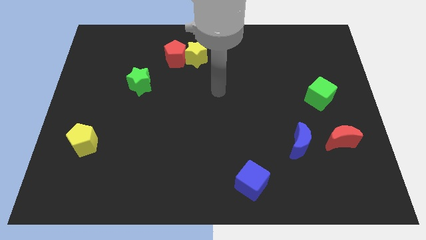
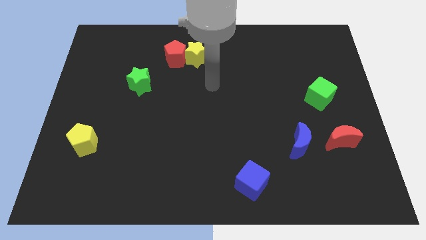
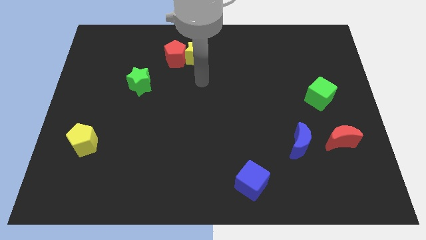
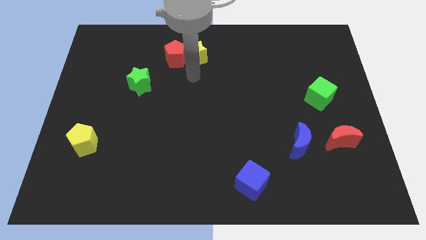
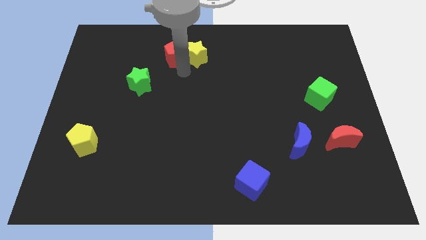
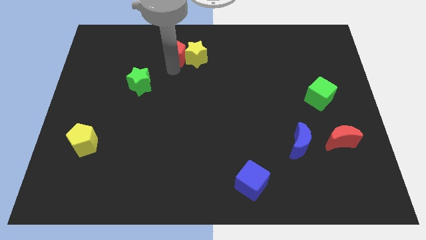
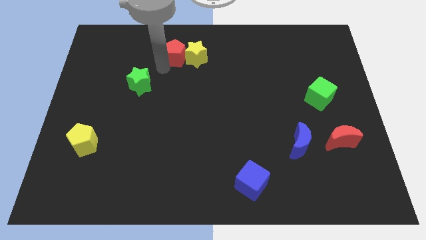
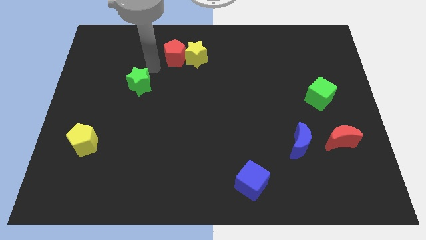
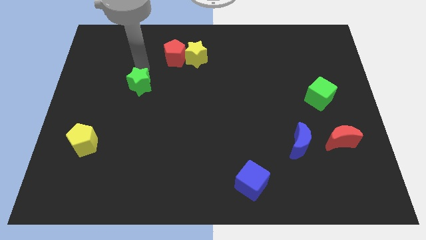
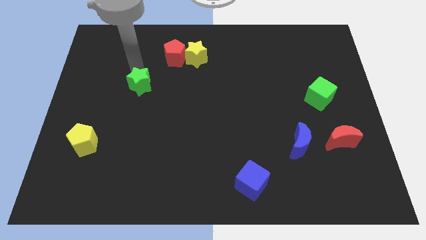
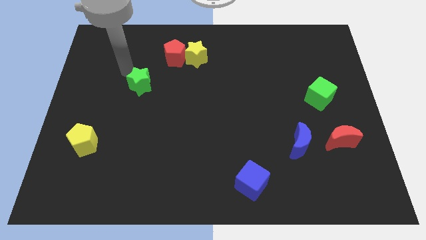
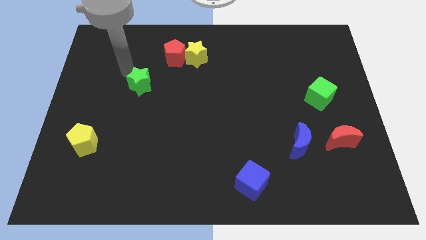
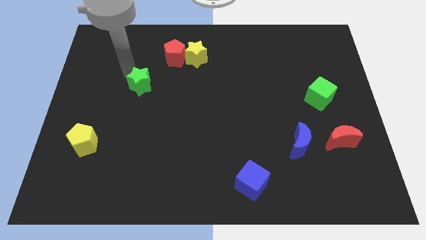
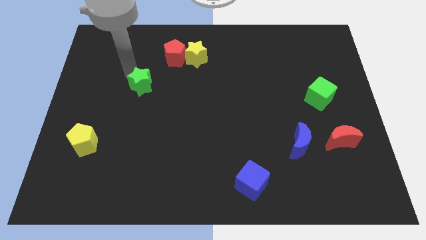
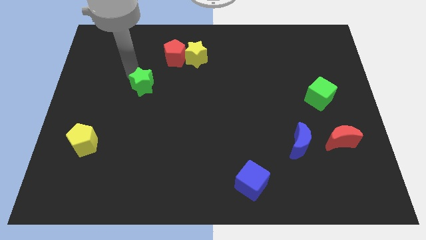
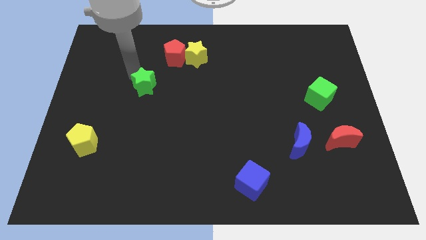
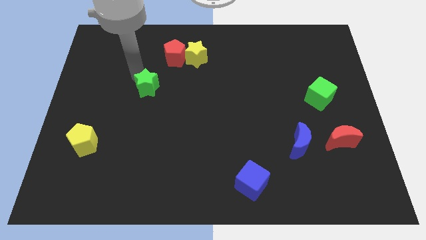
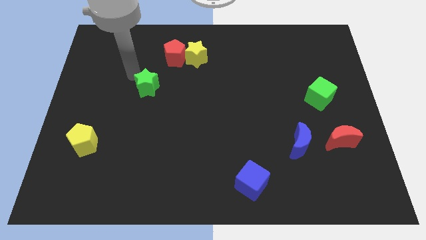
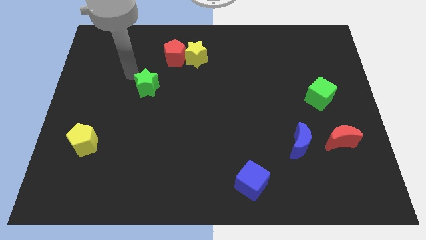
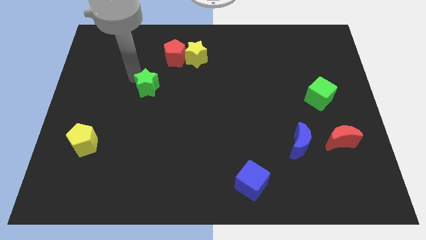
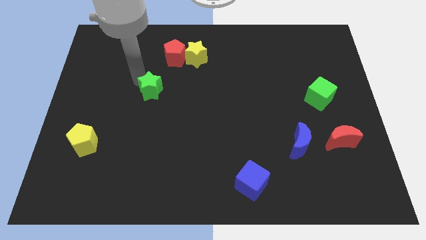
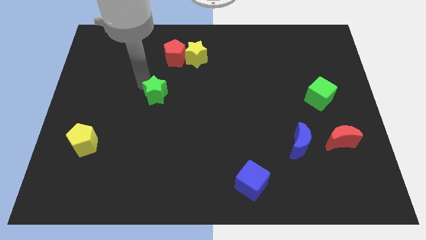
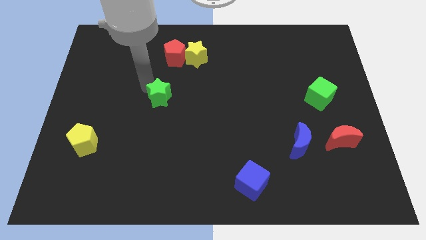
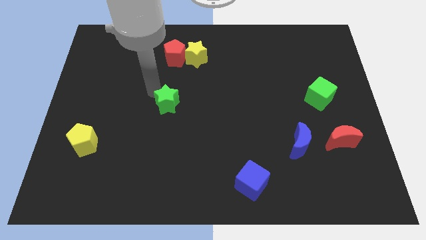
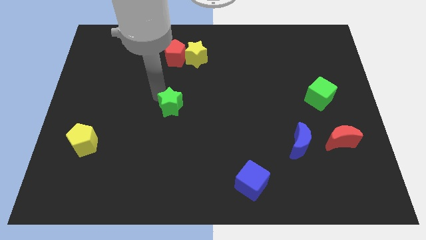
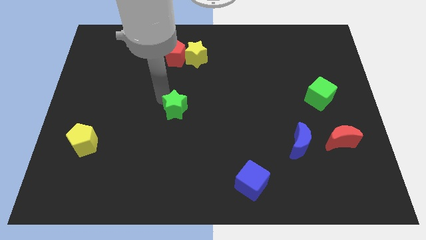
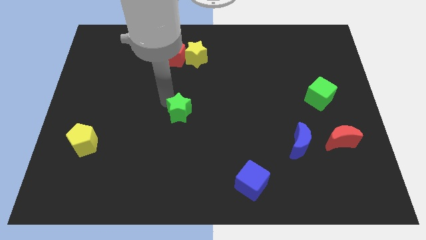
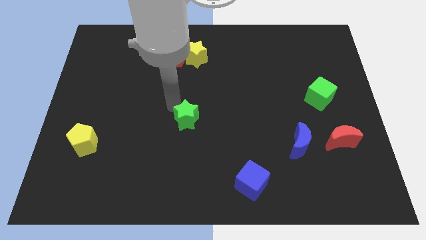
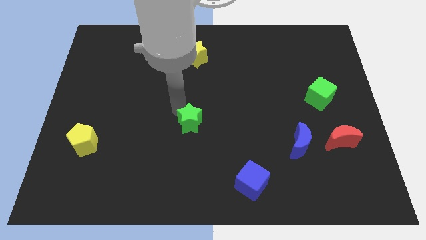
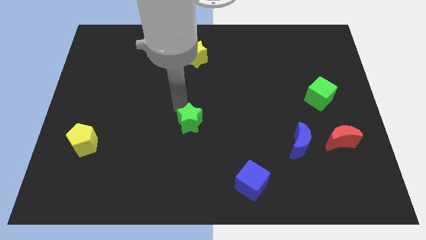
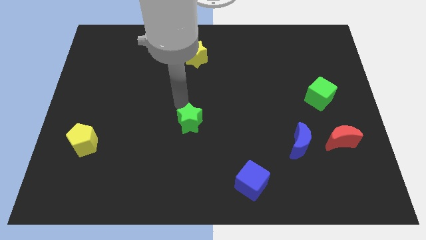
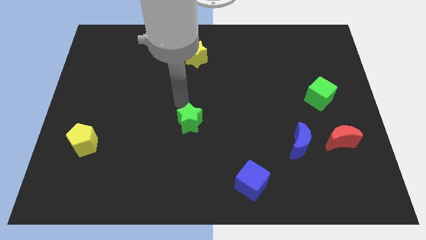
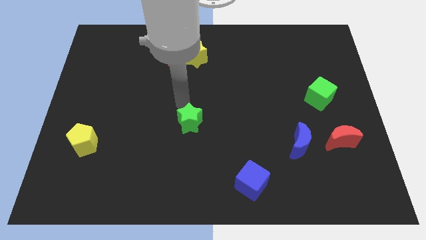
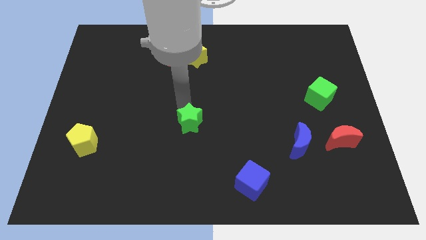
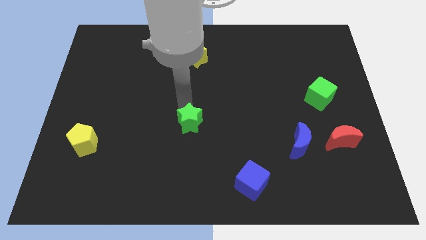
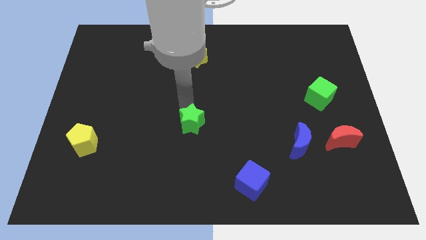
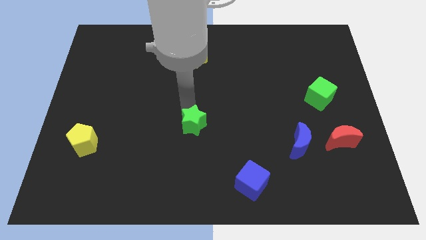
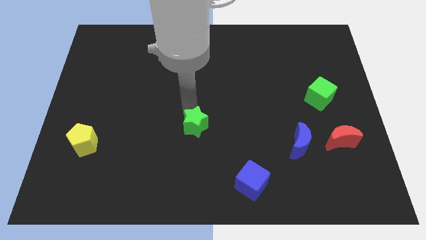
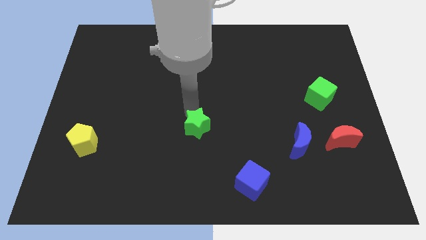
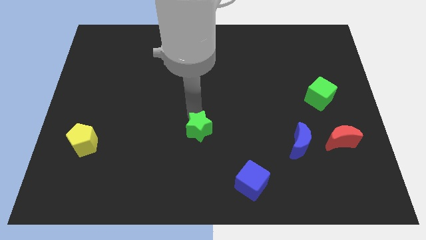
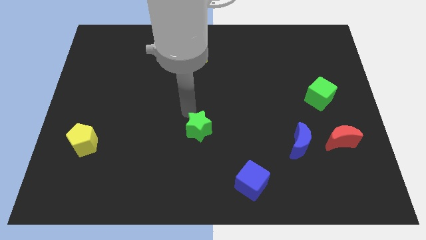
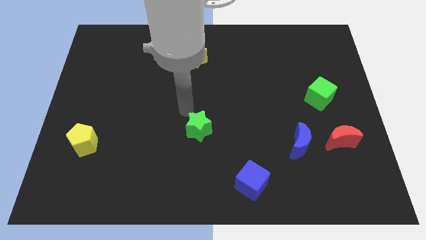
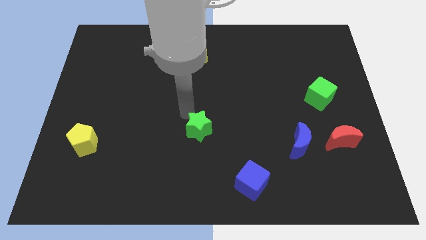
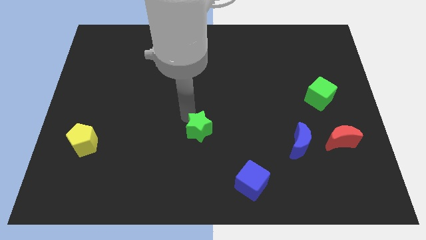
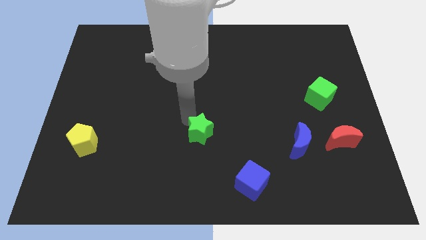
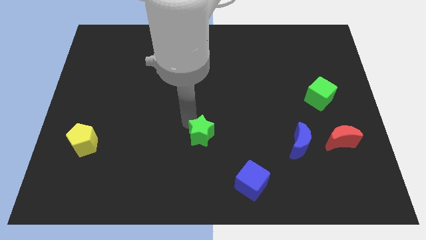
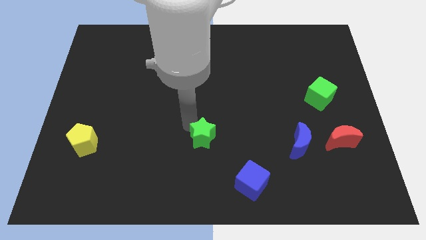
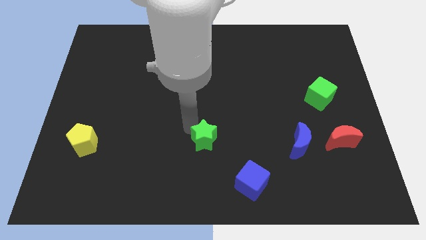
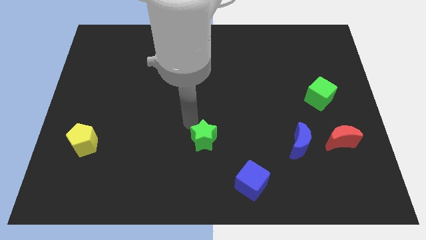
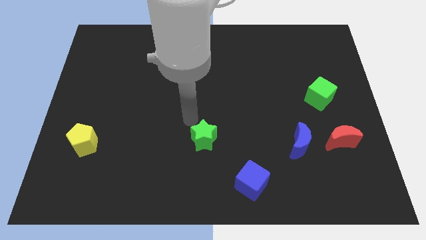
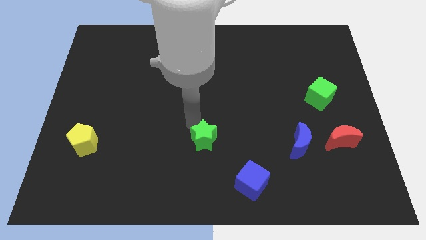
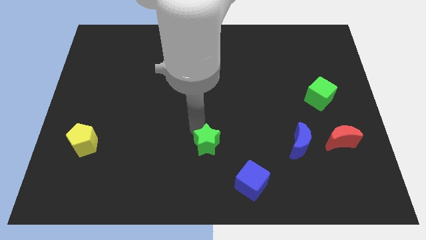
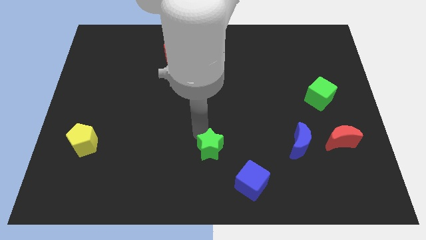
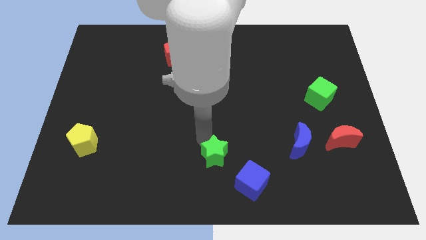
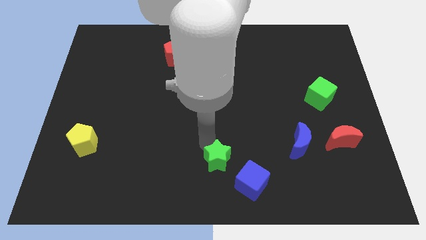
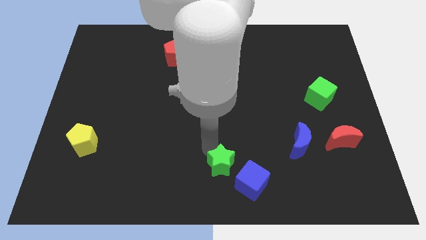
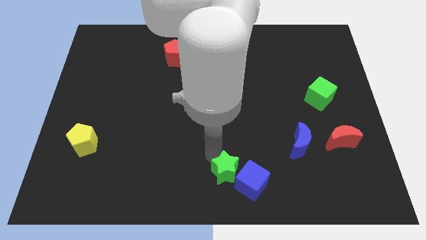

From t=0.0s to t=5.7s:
put the green star towards the blue cube

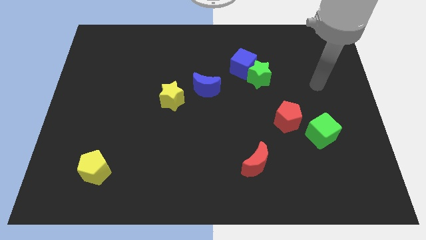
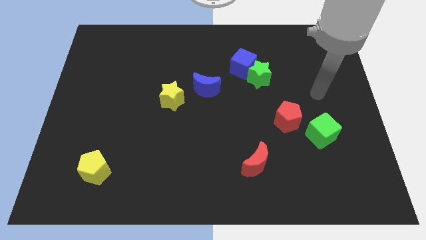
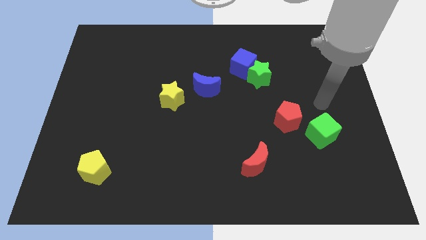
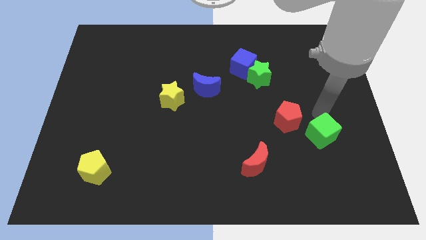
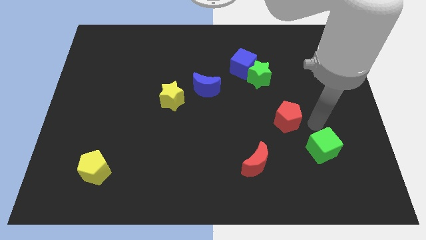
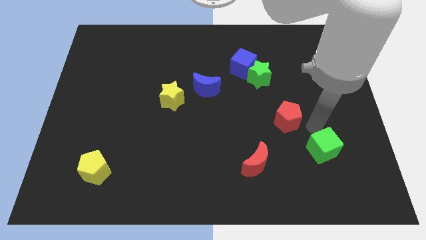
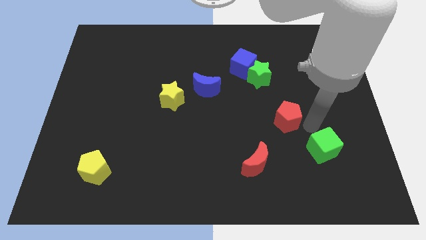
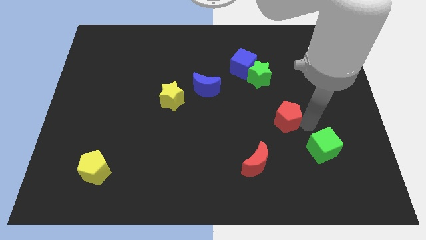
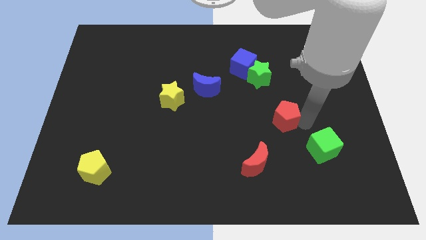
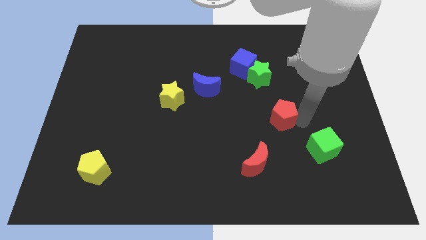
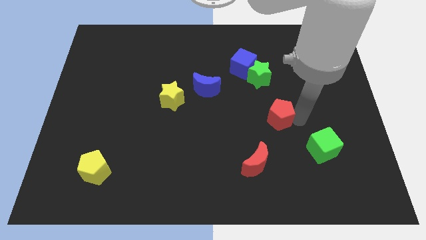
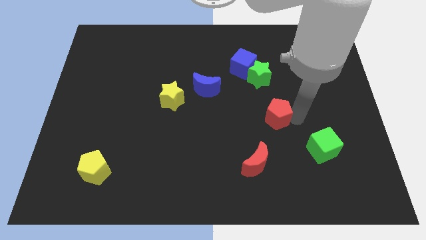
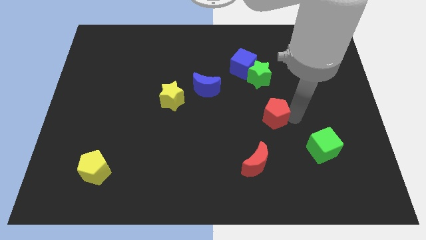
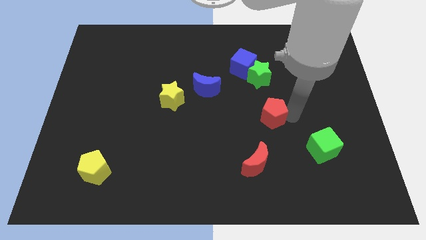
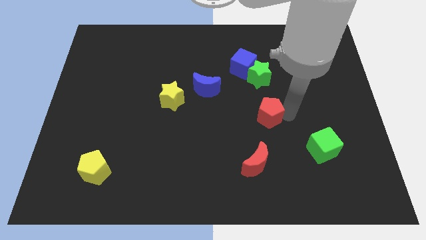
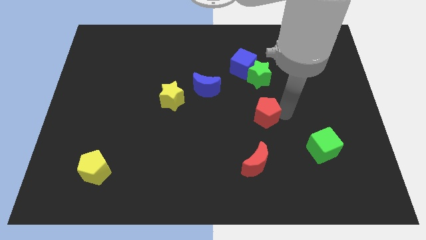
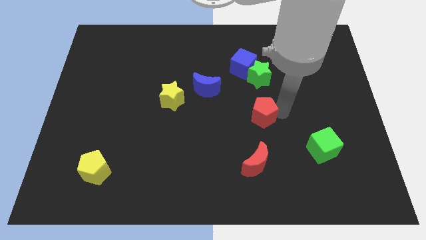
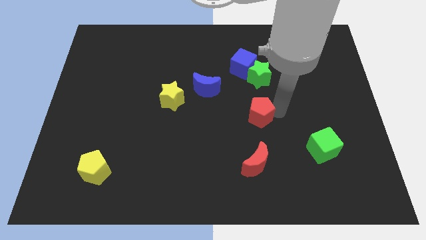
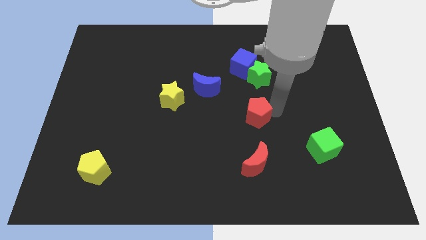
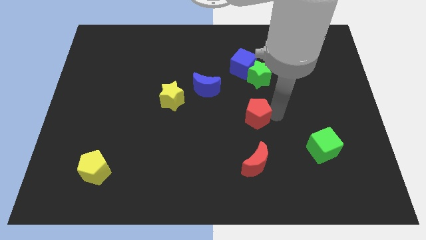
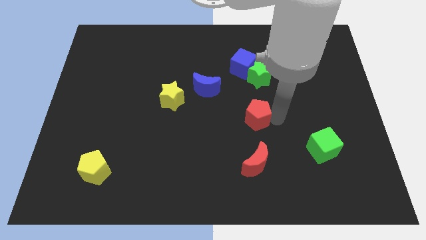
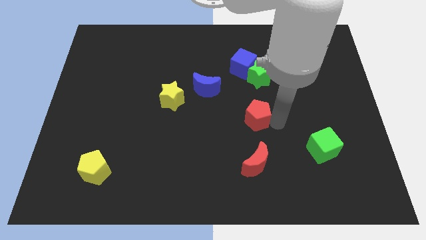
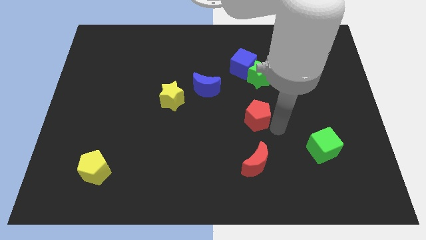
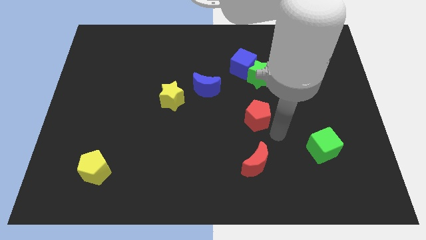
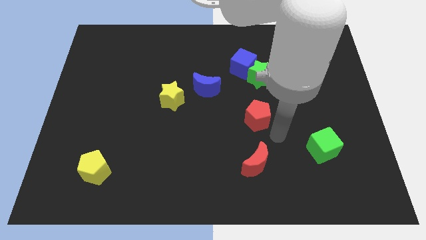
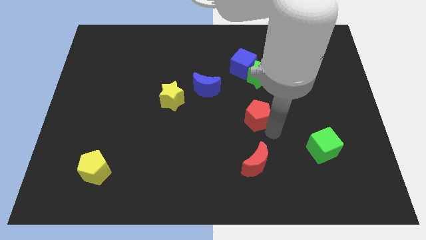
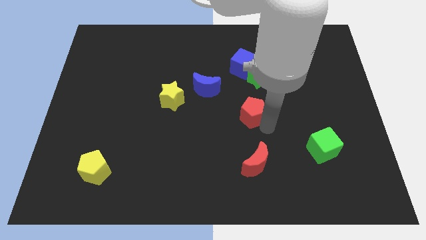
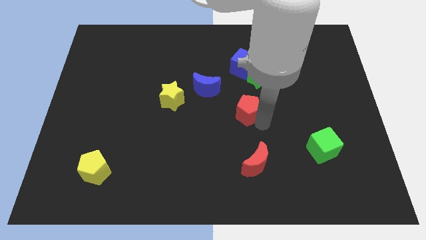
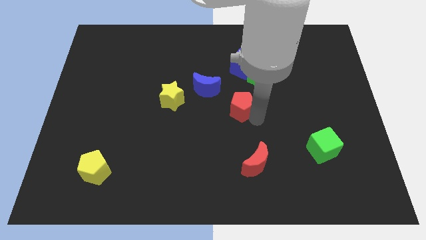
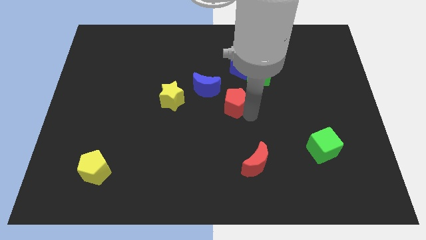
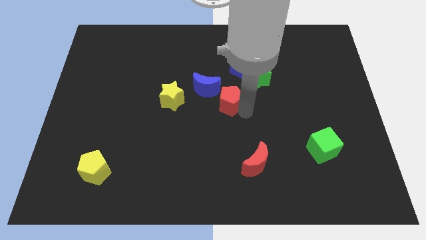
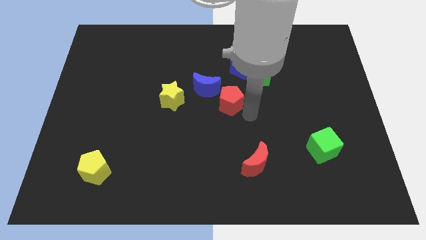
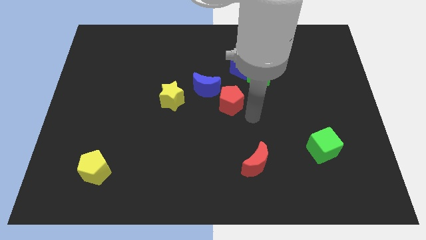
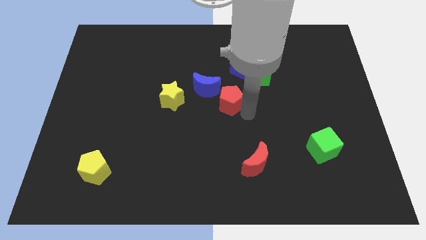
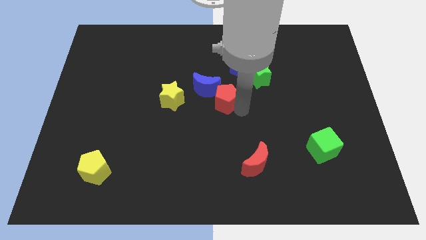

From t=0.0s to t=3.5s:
push the red pentagon to the blue moon
